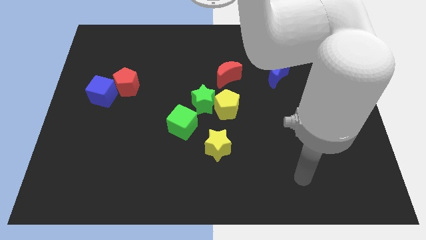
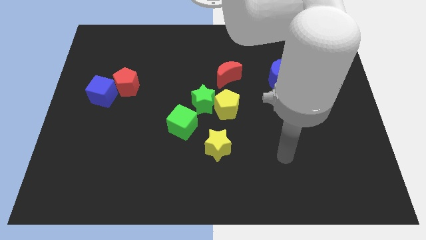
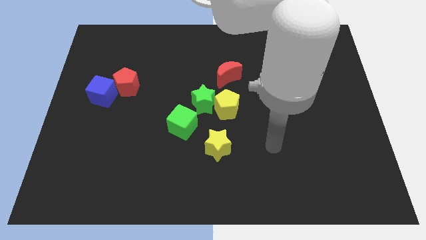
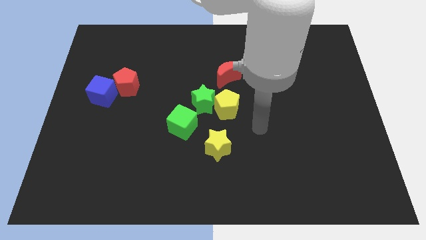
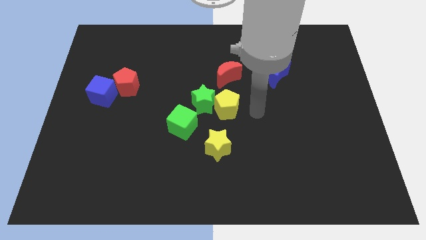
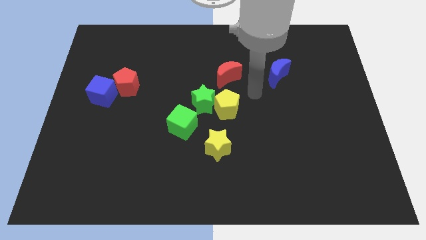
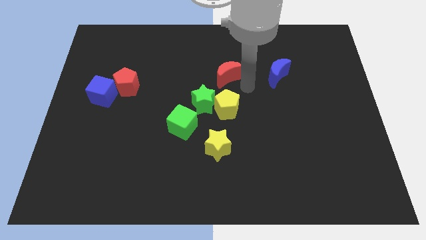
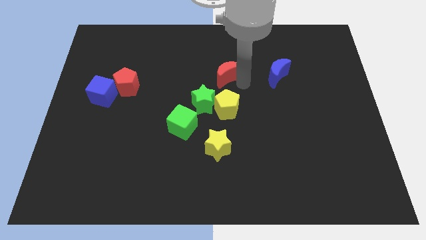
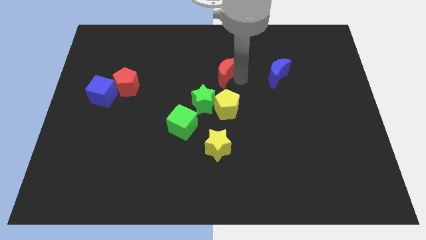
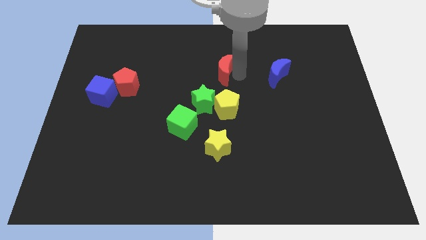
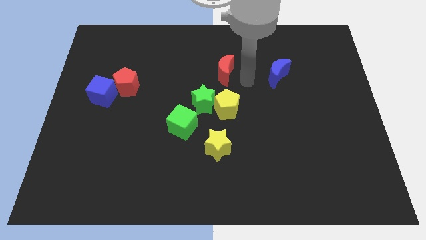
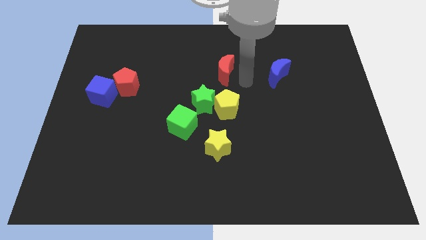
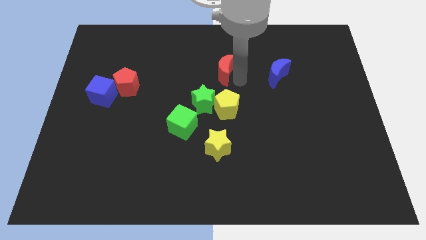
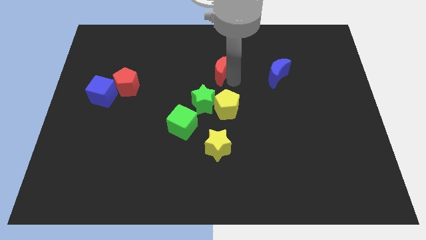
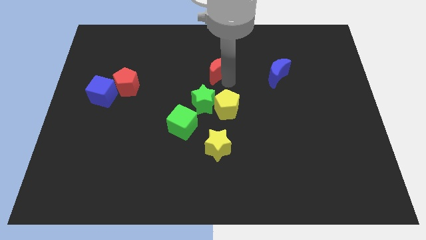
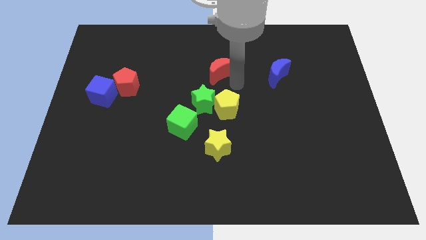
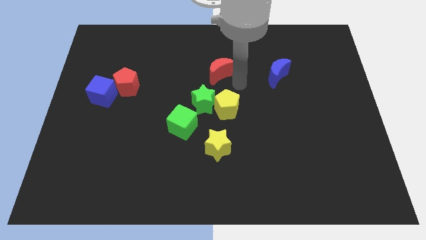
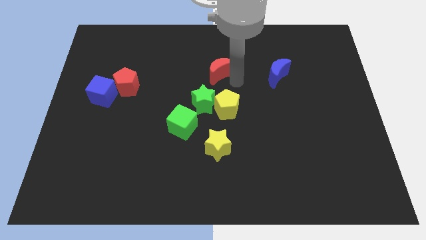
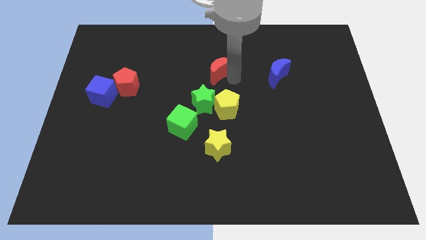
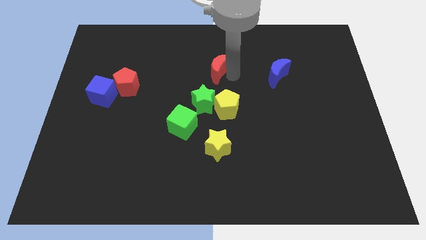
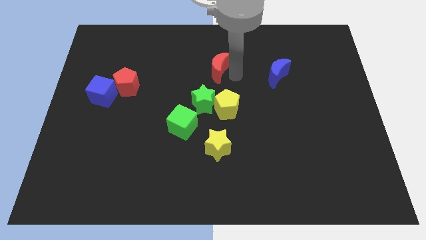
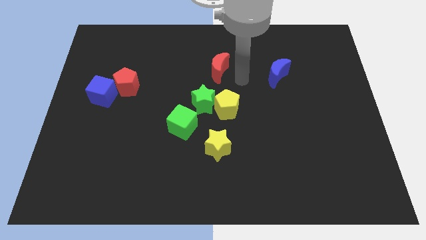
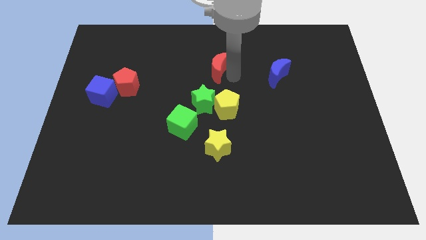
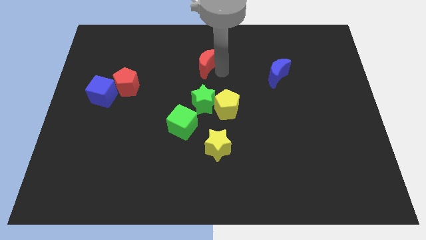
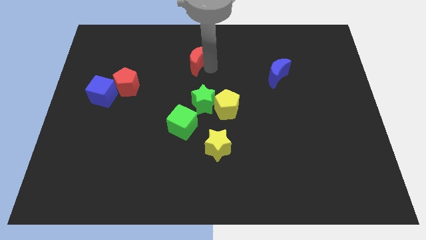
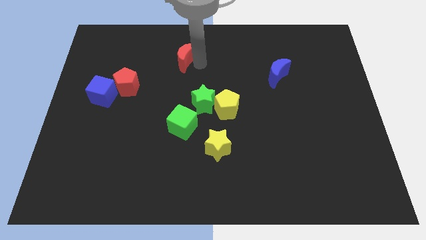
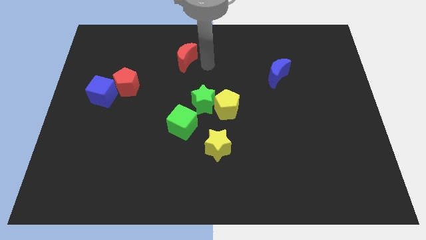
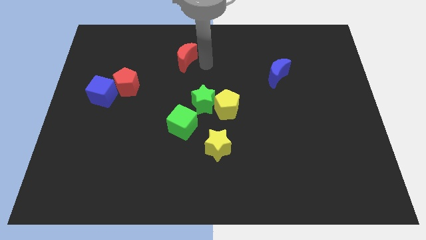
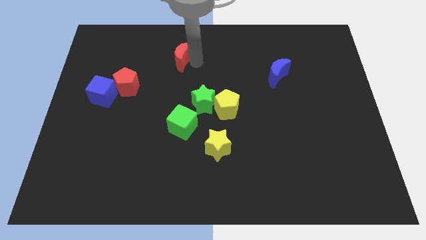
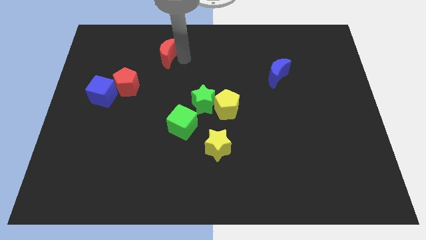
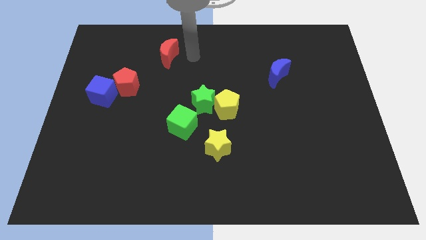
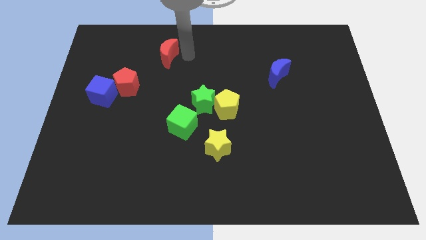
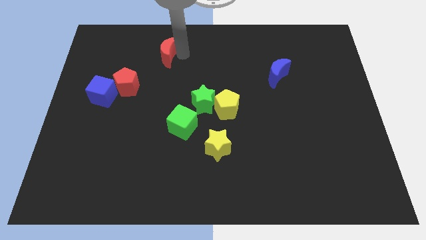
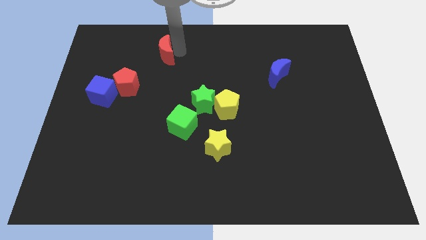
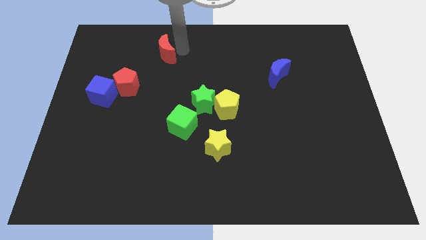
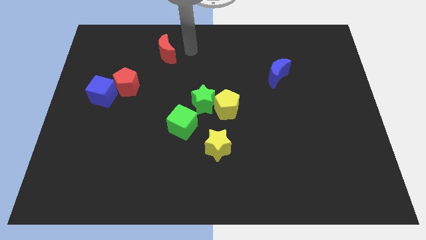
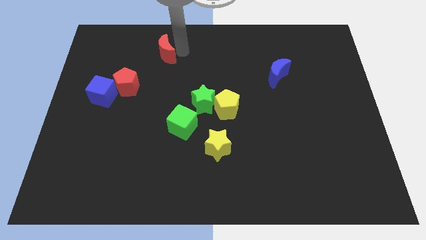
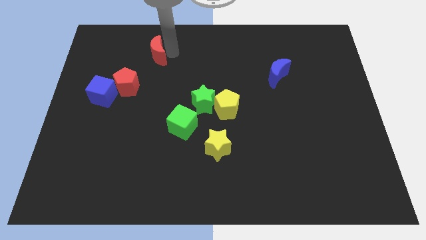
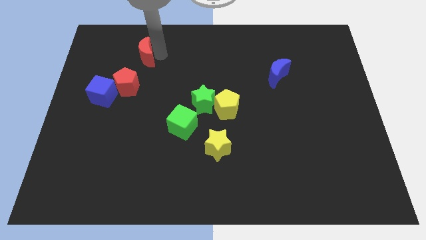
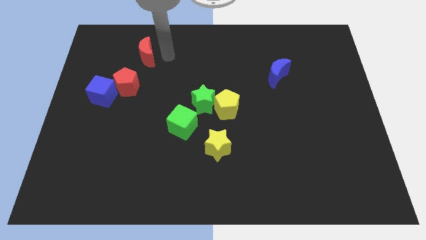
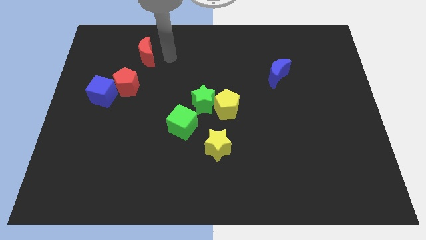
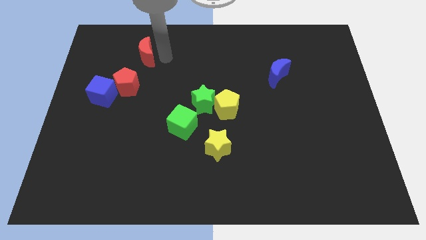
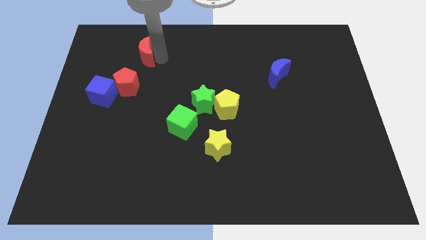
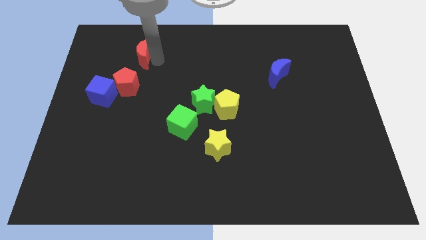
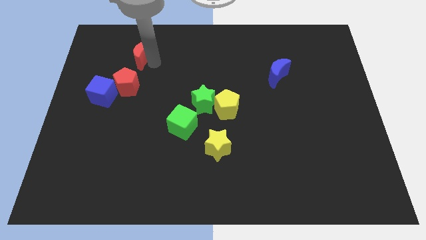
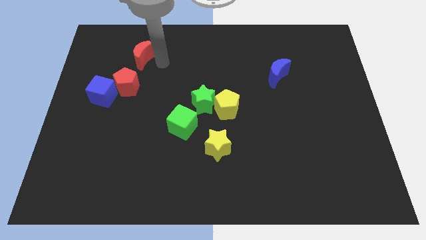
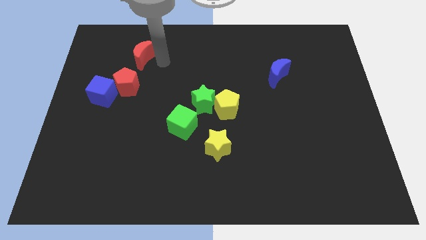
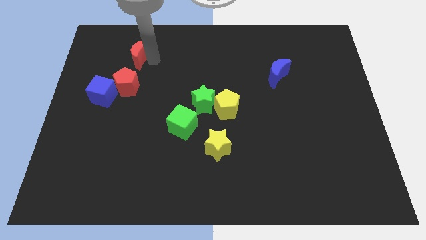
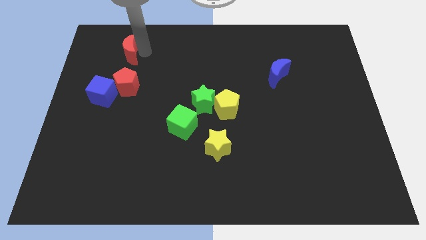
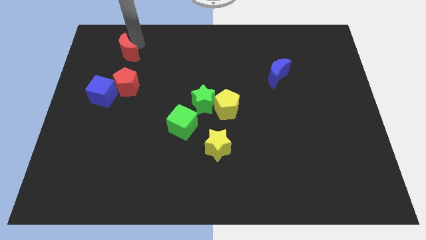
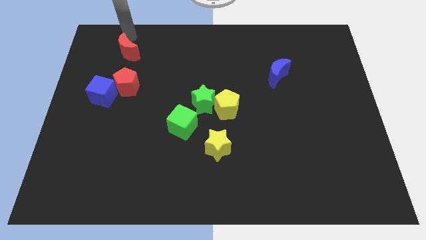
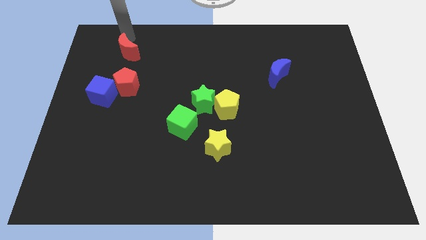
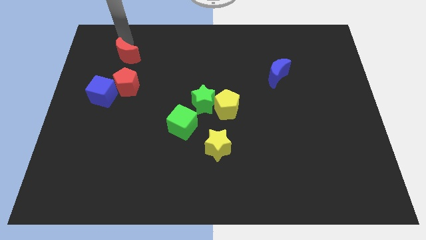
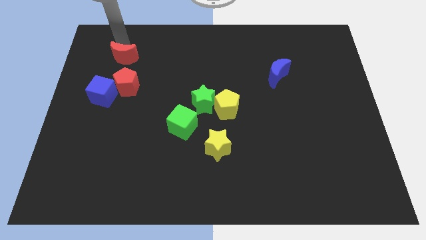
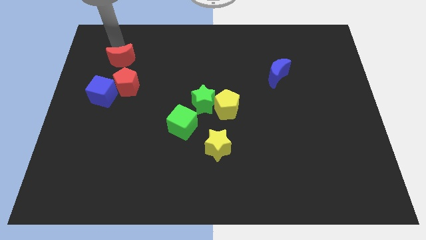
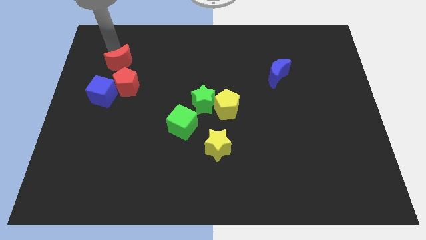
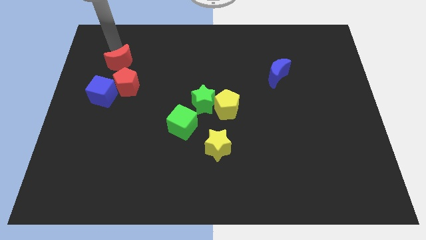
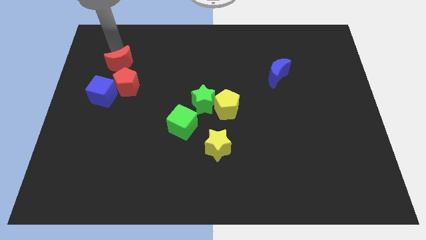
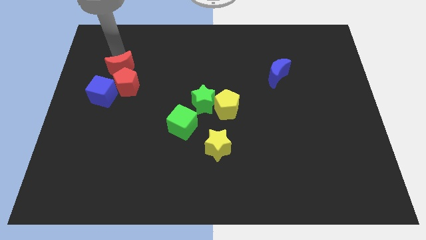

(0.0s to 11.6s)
put the red moon to the top right of the blue cube
